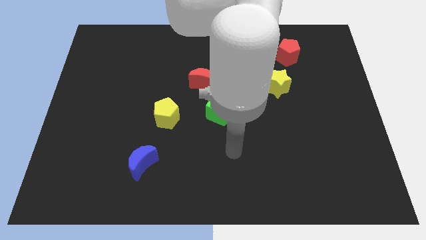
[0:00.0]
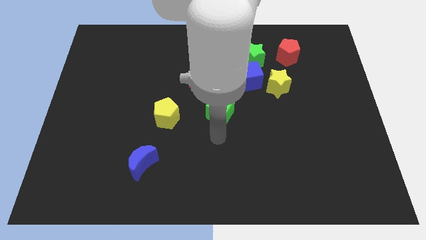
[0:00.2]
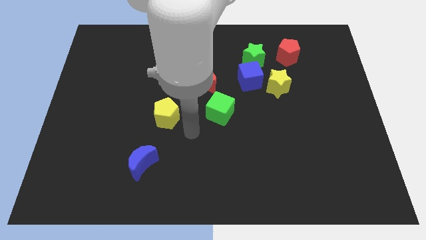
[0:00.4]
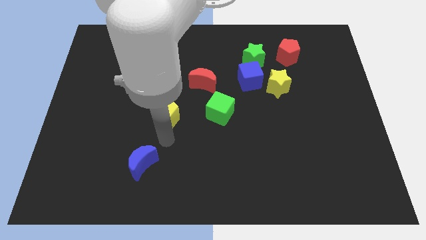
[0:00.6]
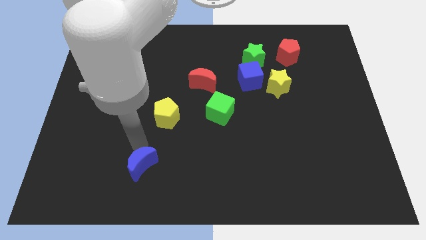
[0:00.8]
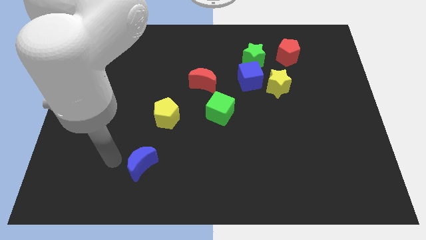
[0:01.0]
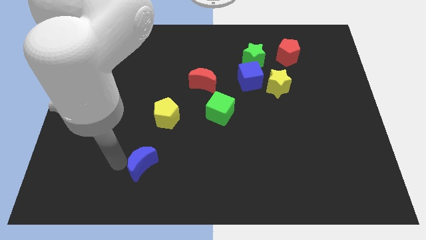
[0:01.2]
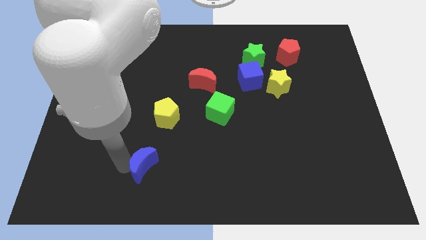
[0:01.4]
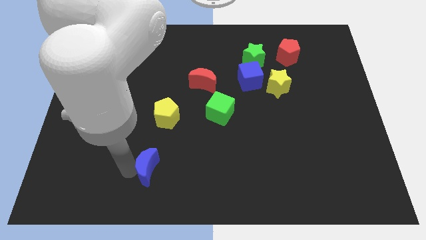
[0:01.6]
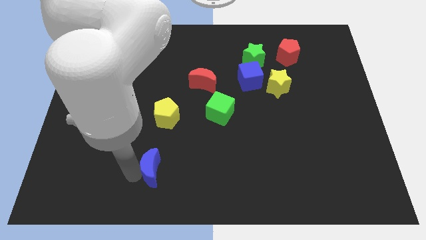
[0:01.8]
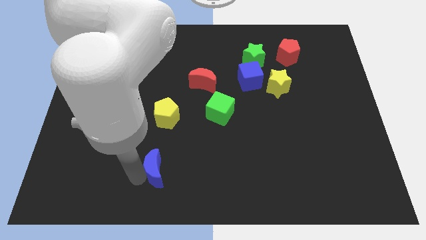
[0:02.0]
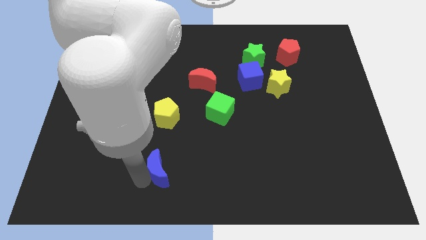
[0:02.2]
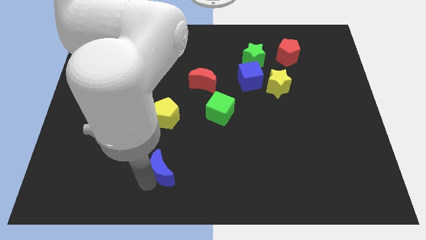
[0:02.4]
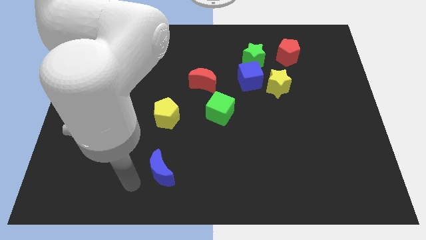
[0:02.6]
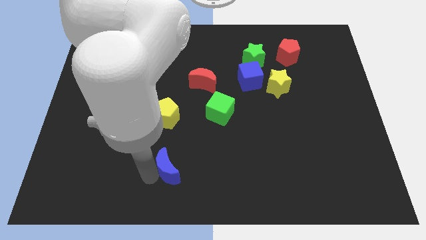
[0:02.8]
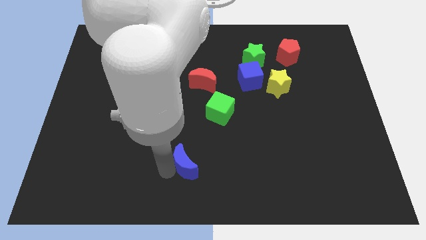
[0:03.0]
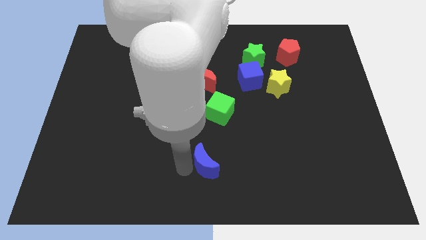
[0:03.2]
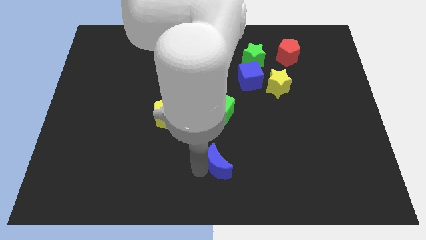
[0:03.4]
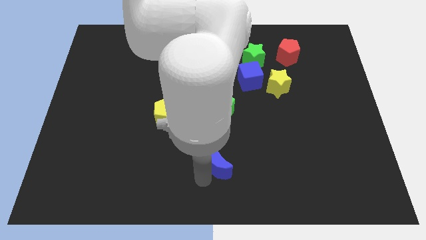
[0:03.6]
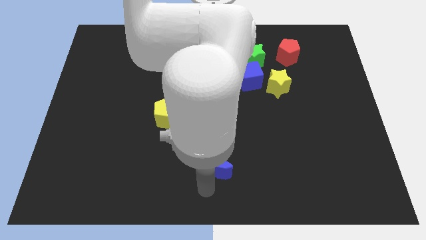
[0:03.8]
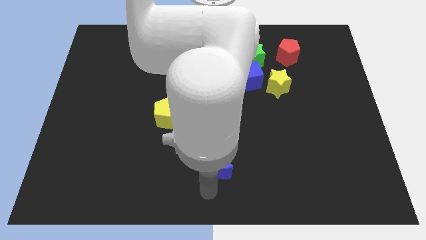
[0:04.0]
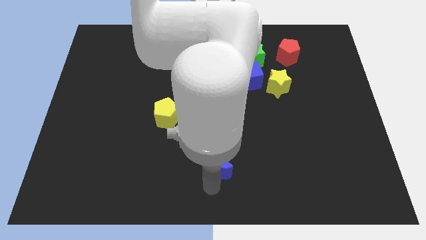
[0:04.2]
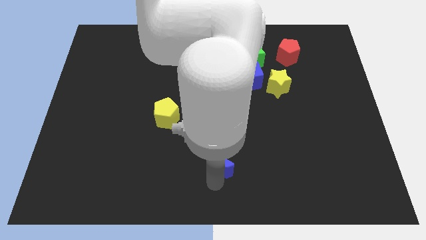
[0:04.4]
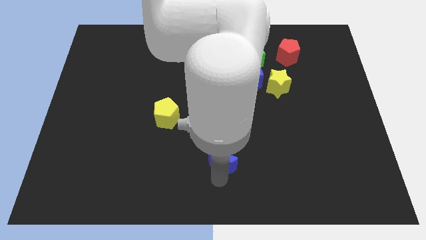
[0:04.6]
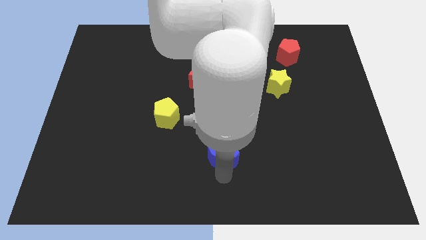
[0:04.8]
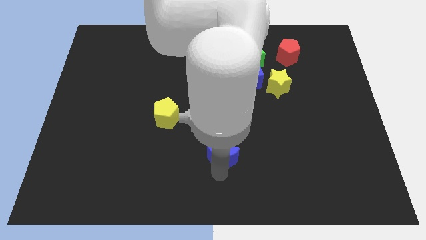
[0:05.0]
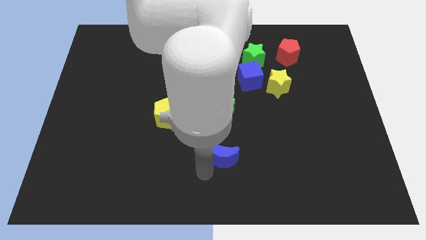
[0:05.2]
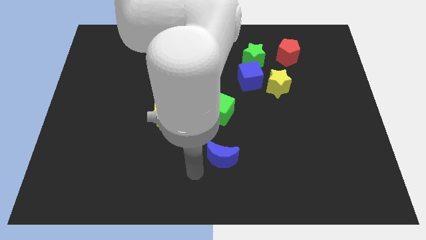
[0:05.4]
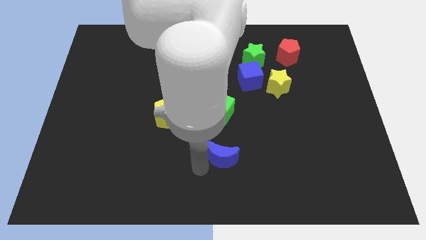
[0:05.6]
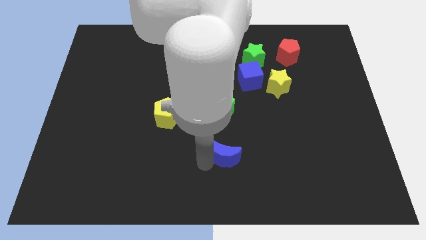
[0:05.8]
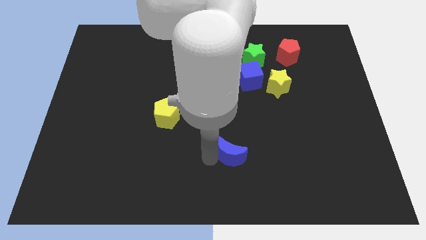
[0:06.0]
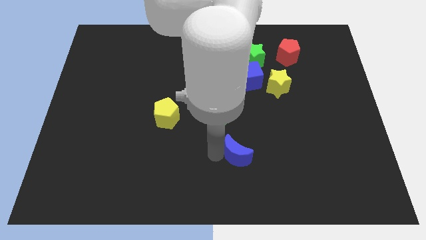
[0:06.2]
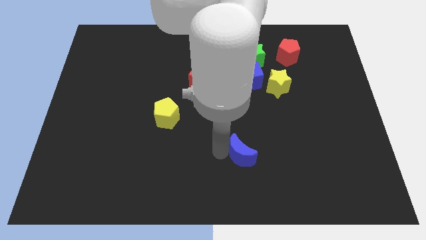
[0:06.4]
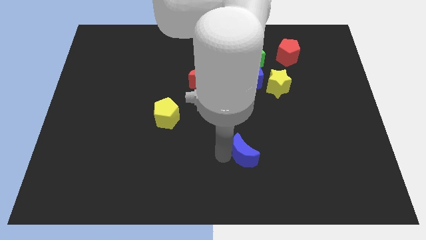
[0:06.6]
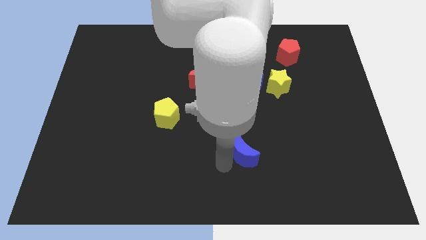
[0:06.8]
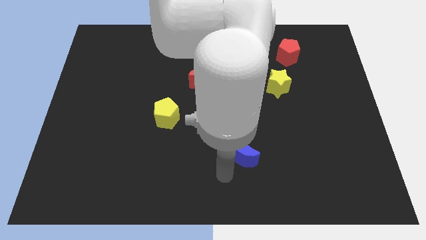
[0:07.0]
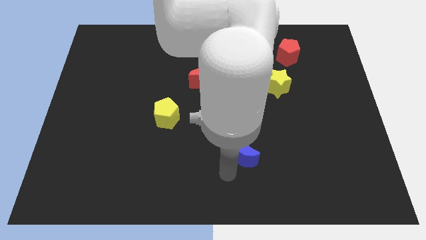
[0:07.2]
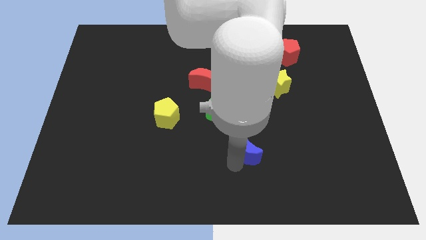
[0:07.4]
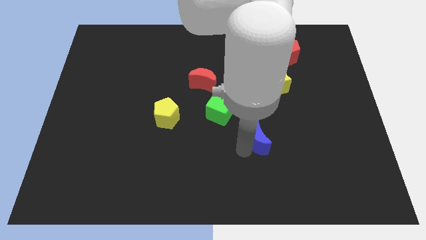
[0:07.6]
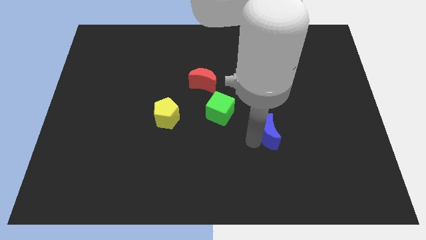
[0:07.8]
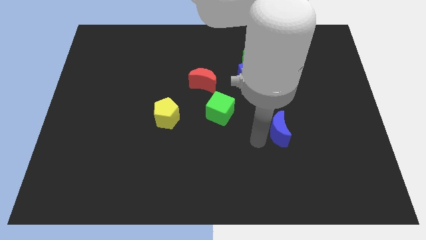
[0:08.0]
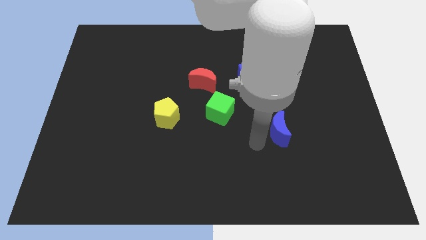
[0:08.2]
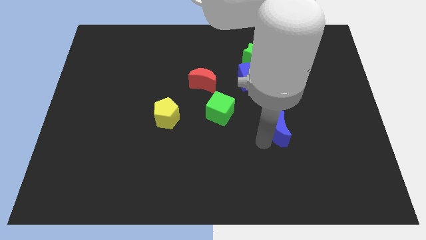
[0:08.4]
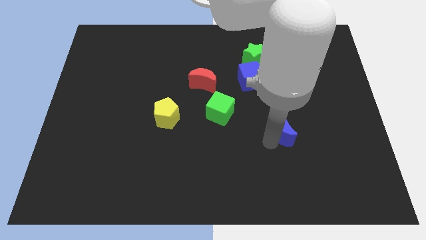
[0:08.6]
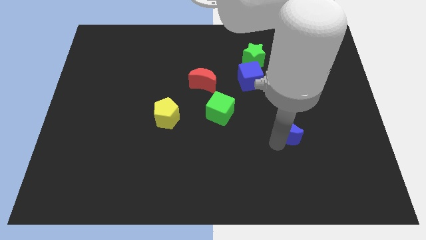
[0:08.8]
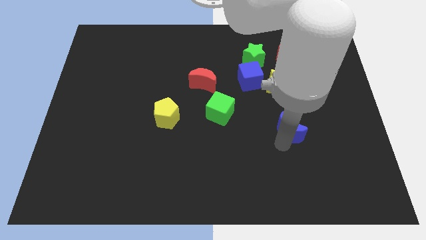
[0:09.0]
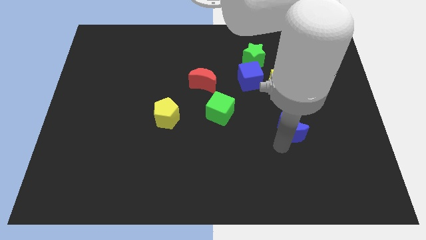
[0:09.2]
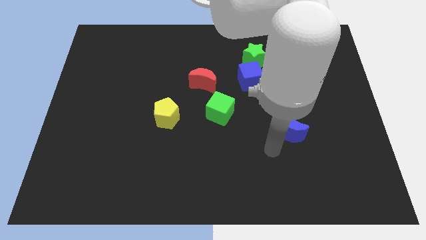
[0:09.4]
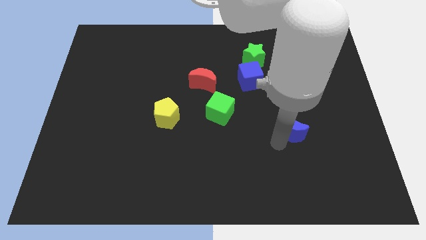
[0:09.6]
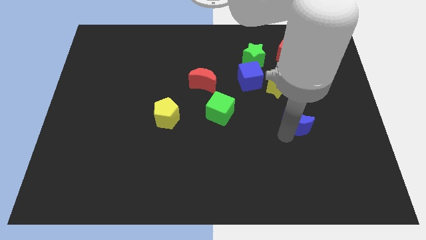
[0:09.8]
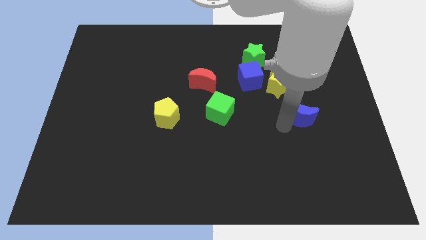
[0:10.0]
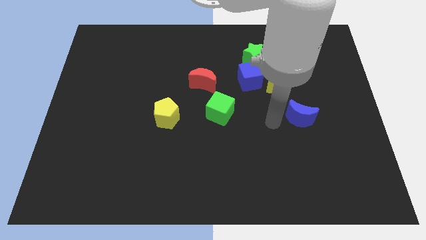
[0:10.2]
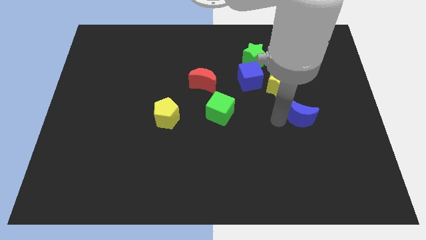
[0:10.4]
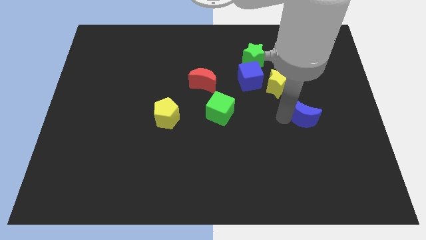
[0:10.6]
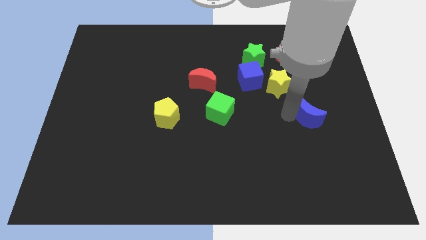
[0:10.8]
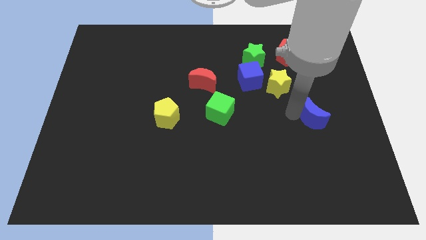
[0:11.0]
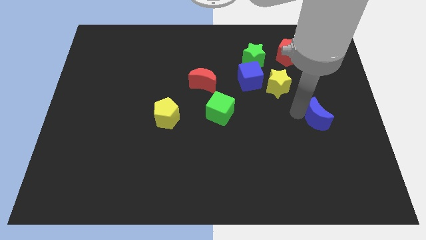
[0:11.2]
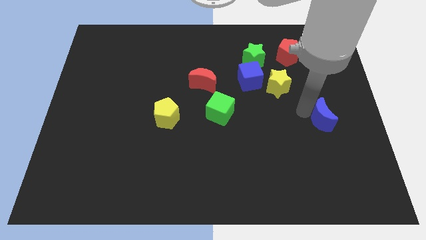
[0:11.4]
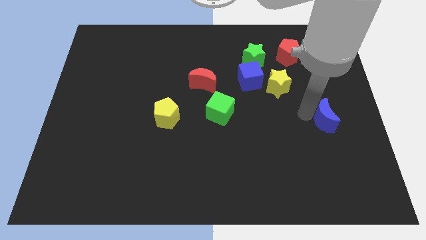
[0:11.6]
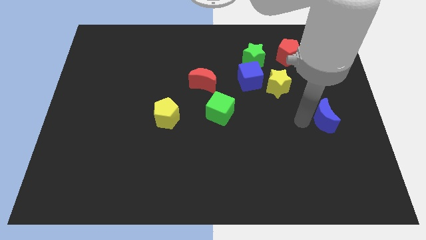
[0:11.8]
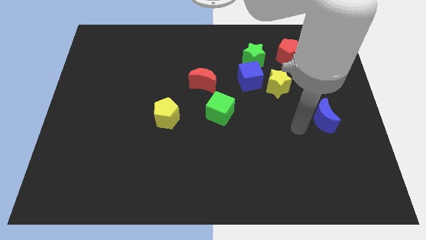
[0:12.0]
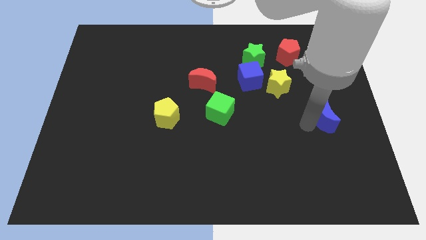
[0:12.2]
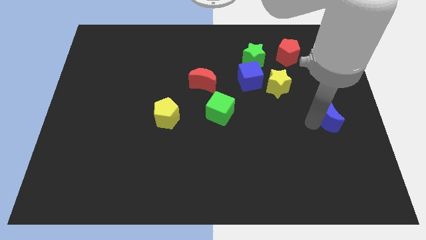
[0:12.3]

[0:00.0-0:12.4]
push the blue moon to the right side

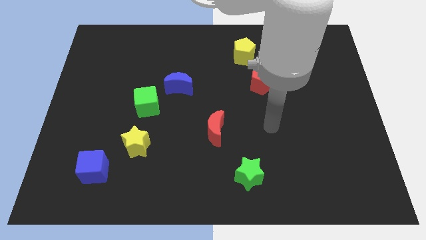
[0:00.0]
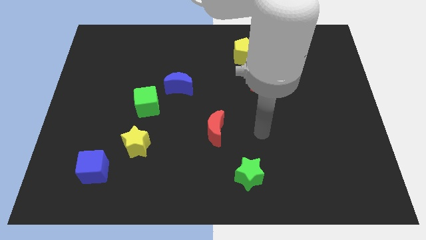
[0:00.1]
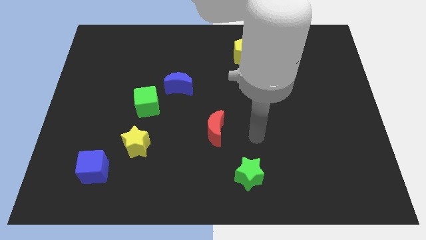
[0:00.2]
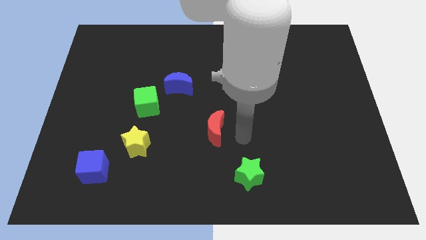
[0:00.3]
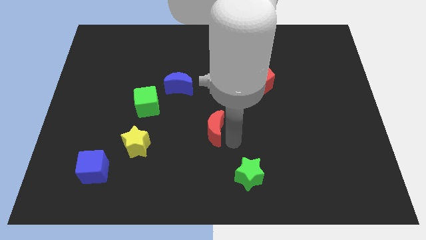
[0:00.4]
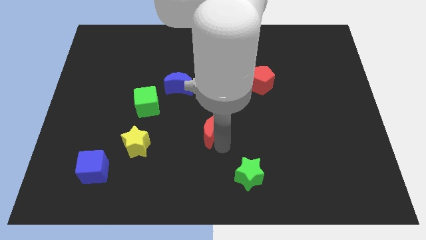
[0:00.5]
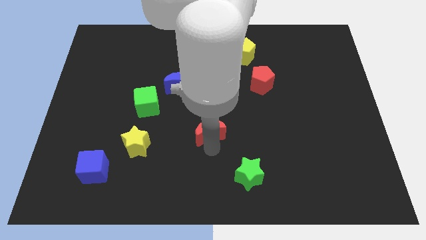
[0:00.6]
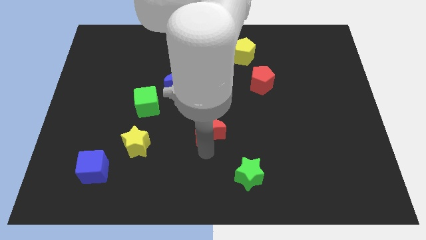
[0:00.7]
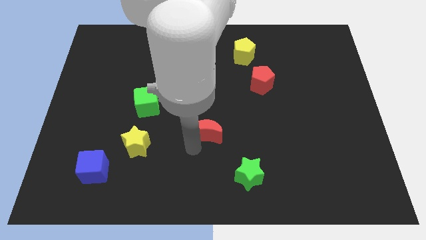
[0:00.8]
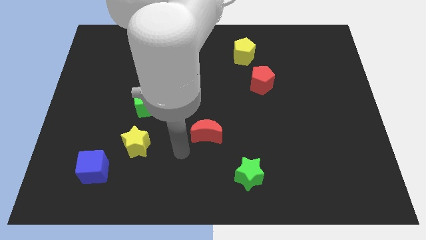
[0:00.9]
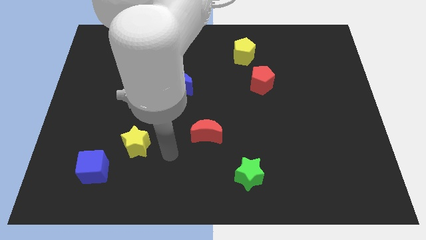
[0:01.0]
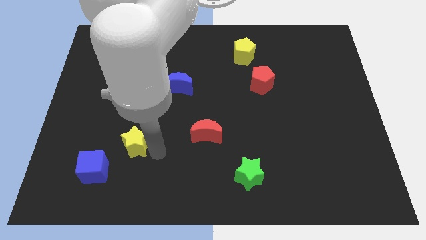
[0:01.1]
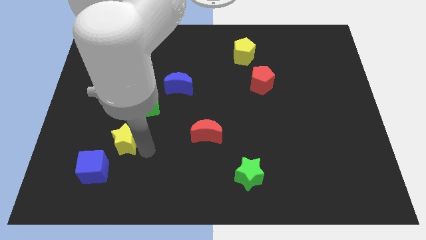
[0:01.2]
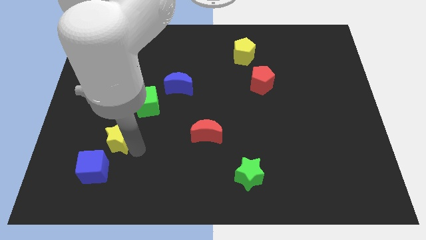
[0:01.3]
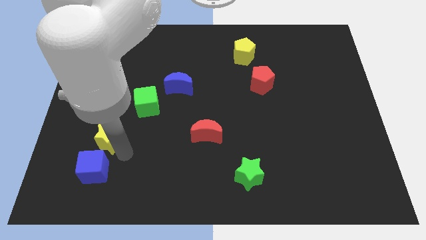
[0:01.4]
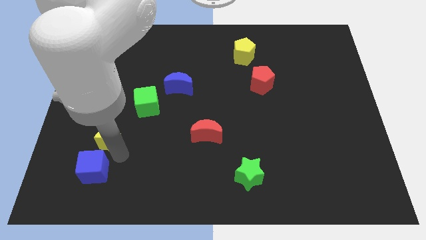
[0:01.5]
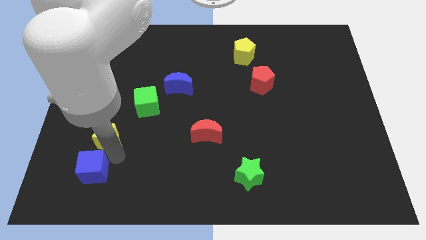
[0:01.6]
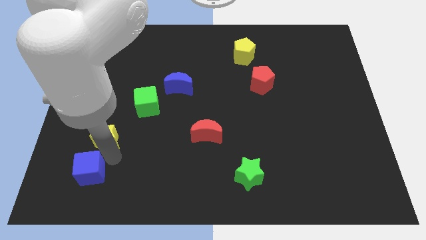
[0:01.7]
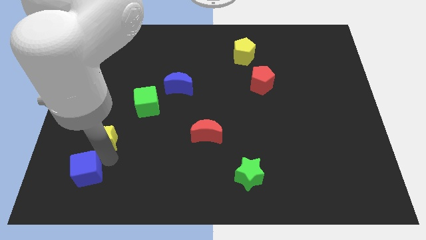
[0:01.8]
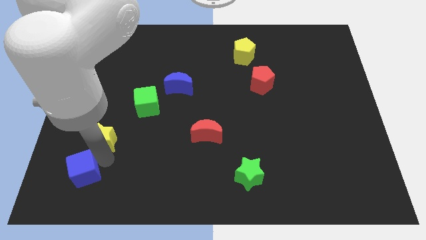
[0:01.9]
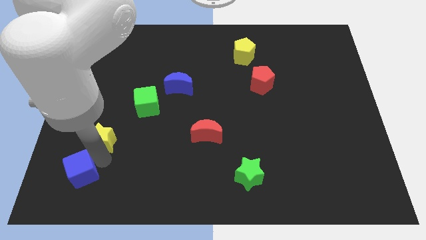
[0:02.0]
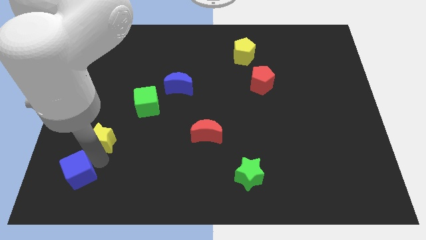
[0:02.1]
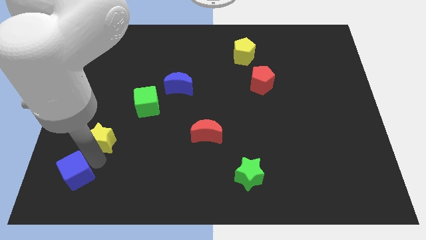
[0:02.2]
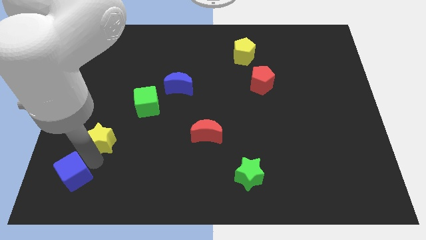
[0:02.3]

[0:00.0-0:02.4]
push the blue cube to the lower left corner
